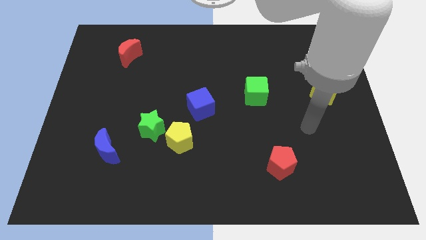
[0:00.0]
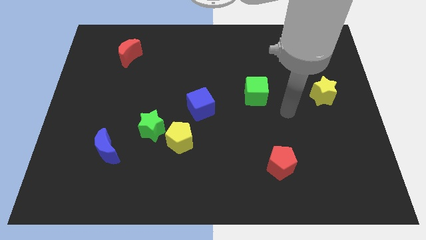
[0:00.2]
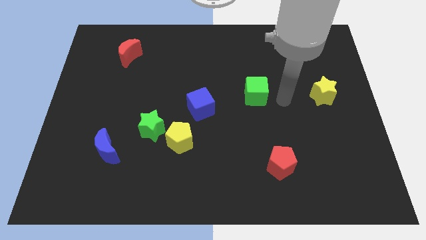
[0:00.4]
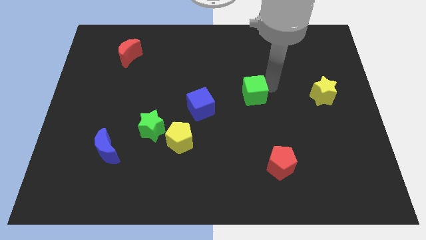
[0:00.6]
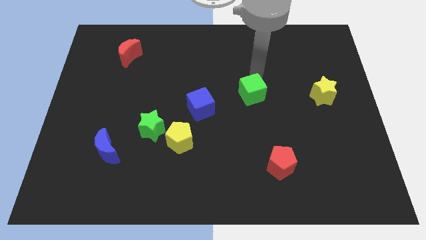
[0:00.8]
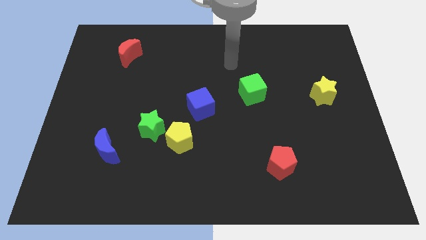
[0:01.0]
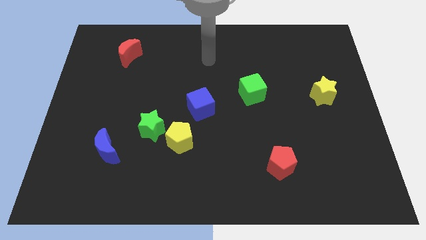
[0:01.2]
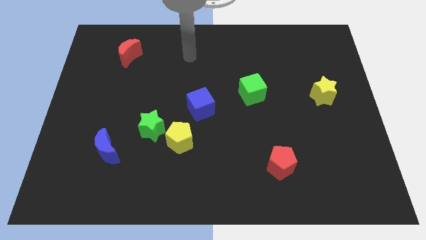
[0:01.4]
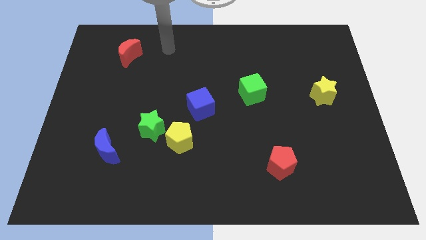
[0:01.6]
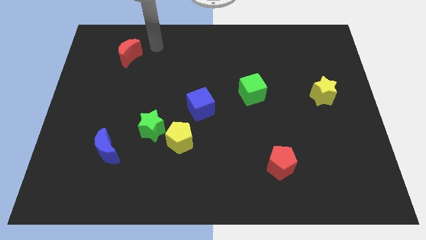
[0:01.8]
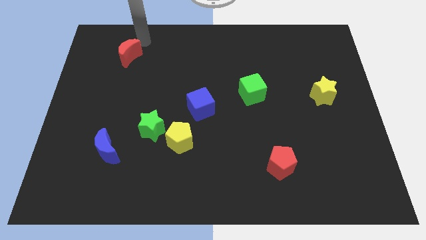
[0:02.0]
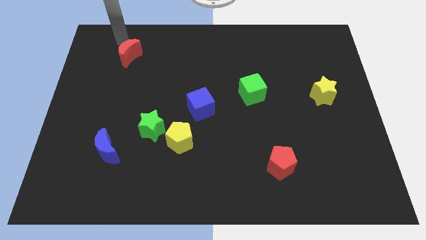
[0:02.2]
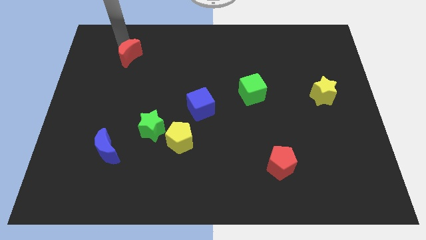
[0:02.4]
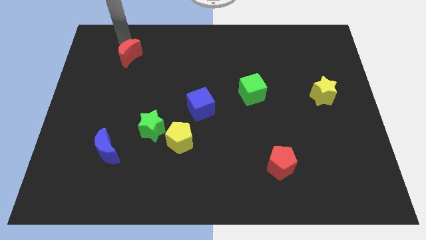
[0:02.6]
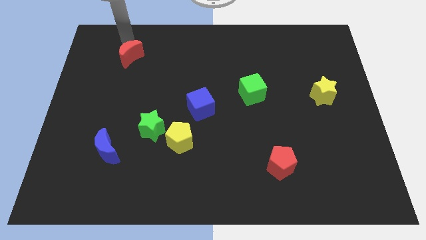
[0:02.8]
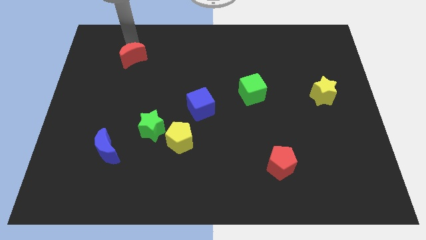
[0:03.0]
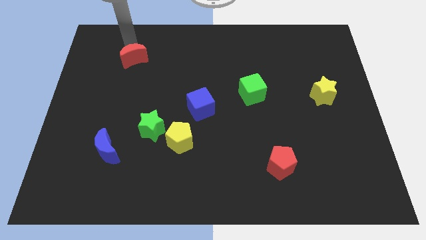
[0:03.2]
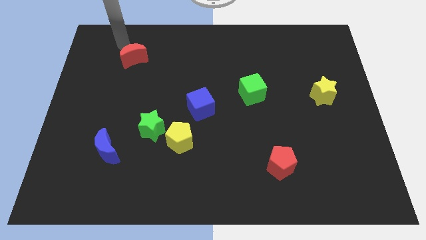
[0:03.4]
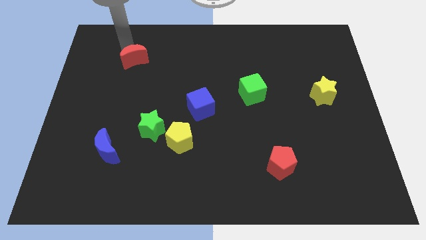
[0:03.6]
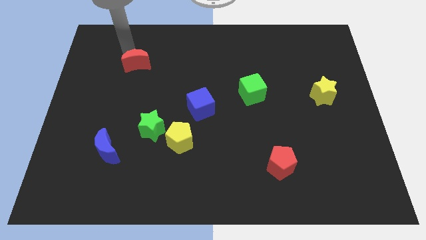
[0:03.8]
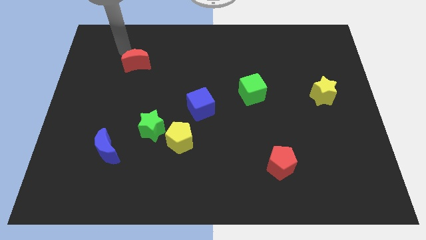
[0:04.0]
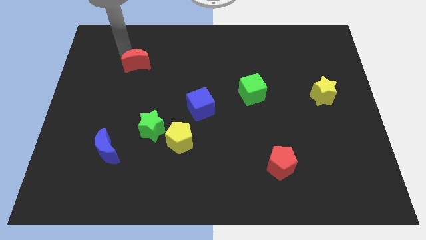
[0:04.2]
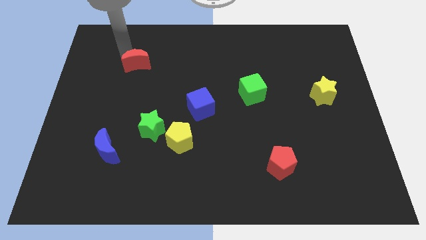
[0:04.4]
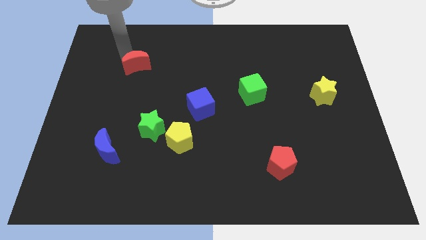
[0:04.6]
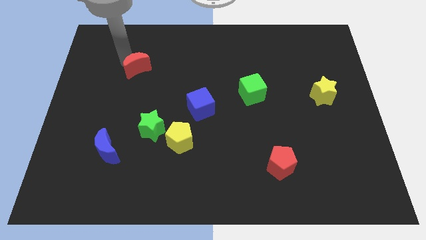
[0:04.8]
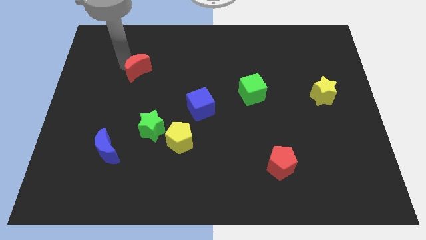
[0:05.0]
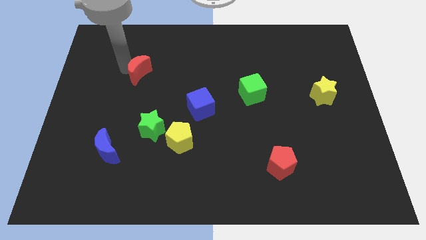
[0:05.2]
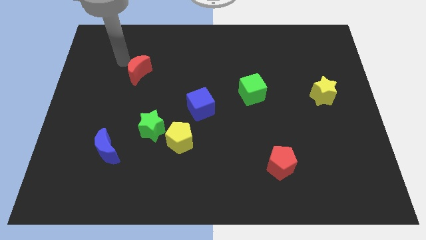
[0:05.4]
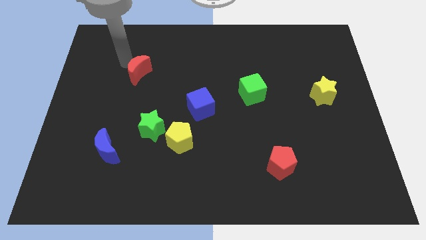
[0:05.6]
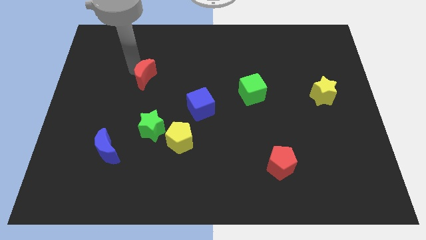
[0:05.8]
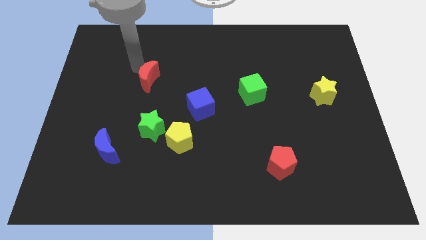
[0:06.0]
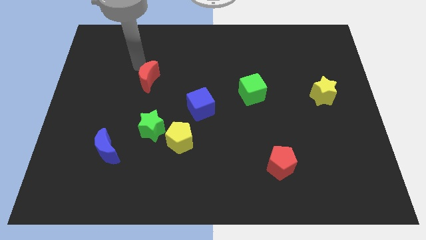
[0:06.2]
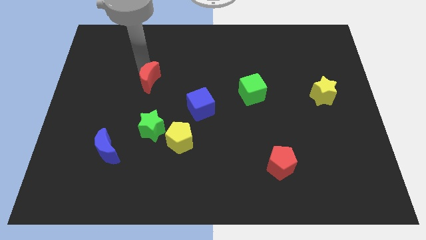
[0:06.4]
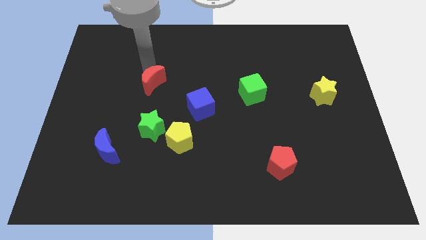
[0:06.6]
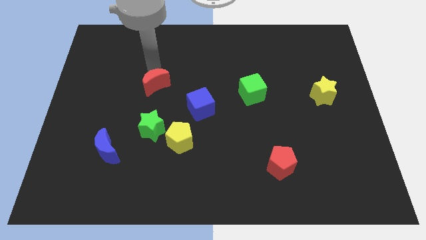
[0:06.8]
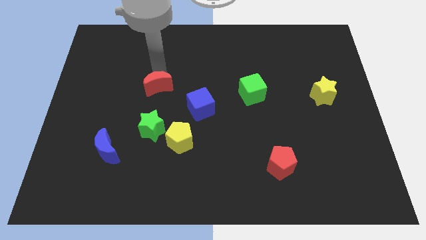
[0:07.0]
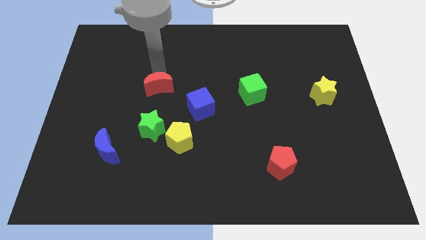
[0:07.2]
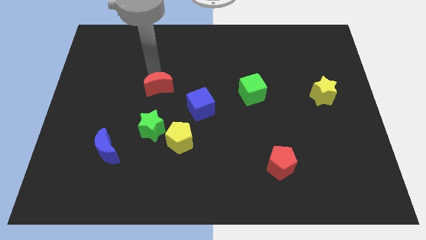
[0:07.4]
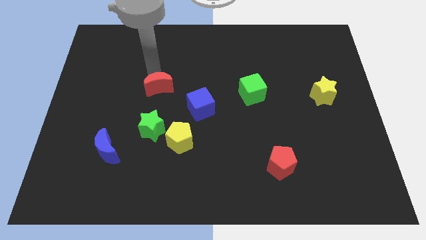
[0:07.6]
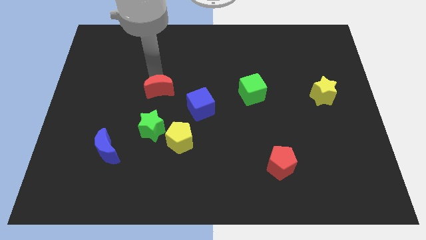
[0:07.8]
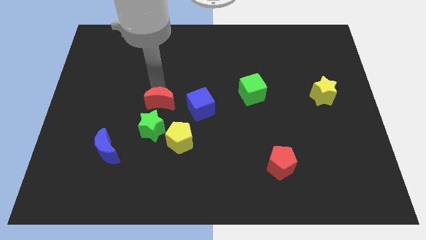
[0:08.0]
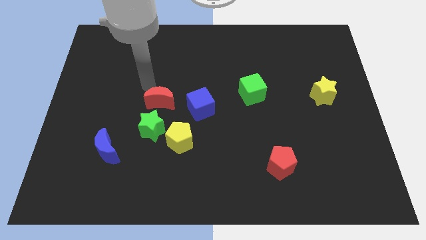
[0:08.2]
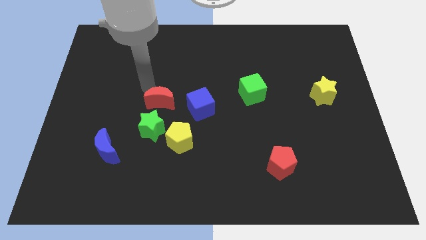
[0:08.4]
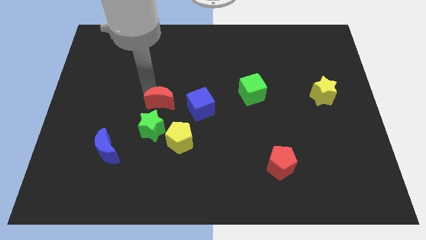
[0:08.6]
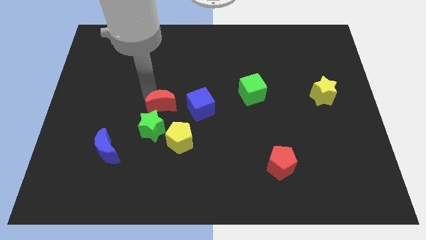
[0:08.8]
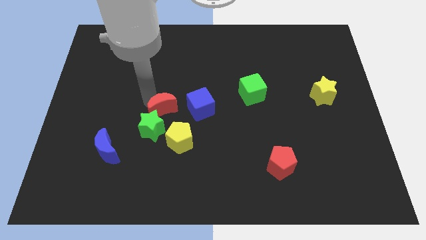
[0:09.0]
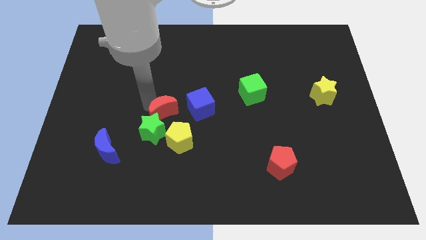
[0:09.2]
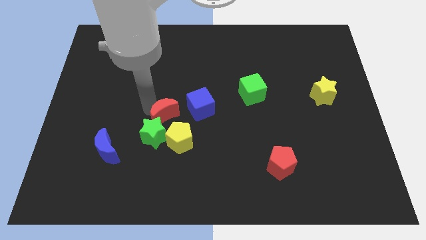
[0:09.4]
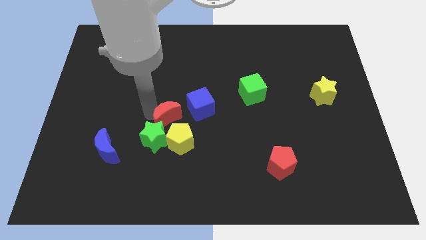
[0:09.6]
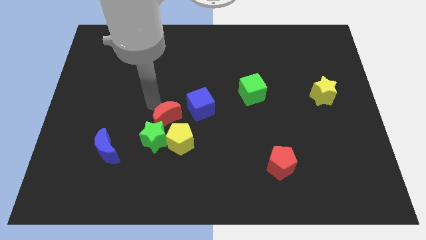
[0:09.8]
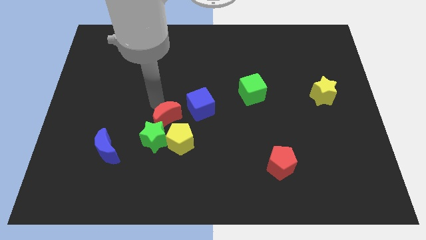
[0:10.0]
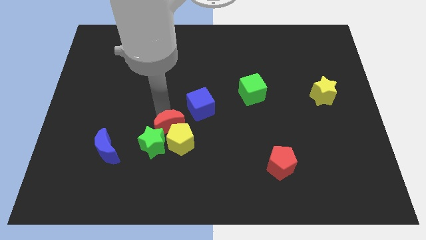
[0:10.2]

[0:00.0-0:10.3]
put the red moon close to the yellow pentagon

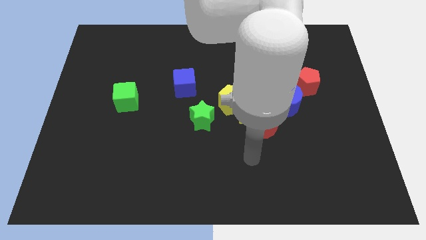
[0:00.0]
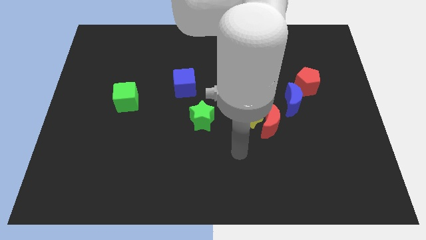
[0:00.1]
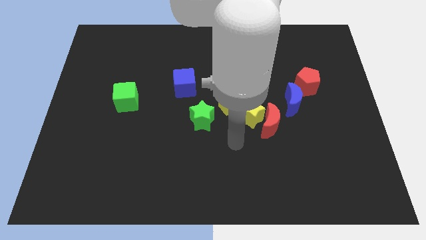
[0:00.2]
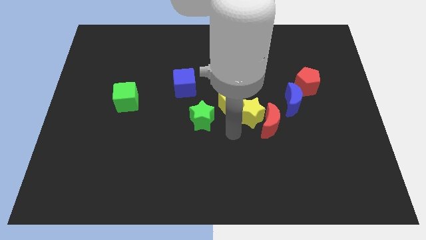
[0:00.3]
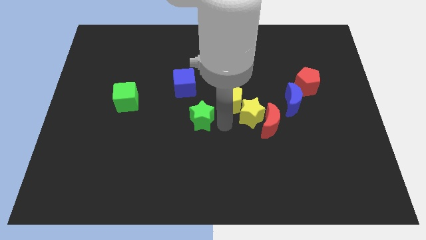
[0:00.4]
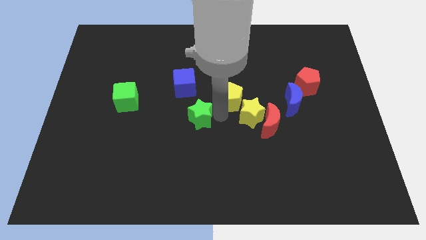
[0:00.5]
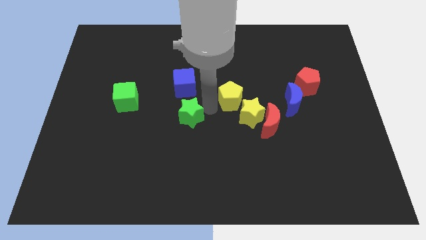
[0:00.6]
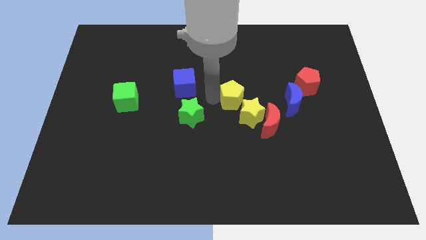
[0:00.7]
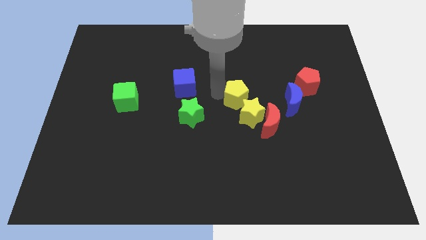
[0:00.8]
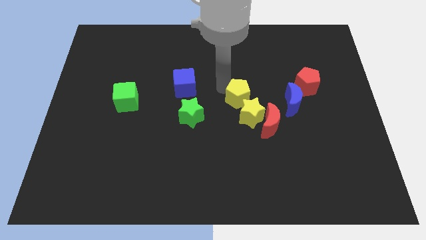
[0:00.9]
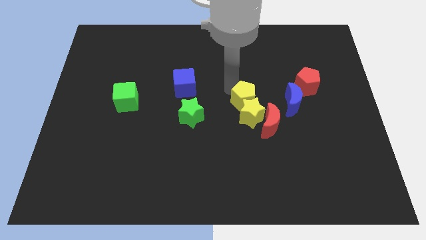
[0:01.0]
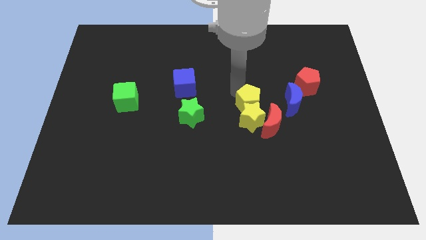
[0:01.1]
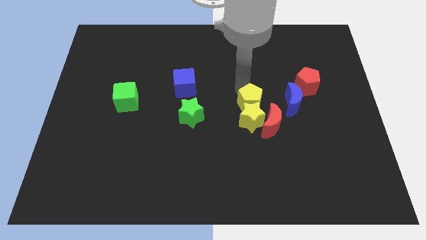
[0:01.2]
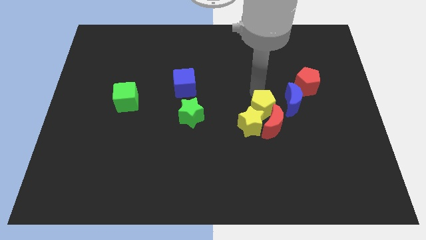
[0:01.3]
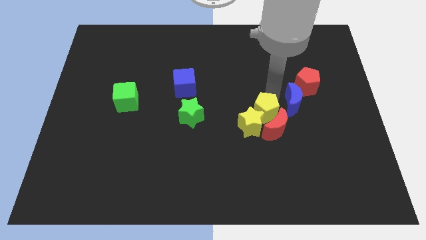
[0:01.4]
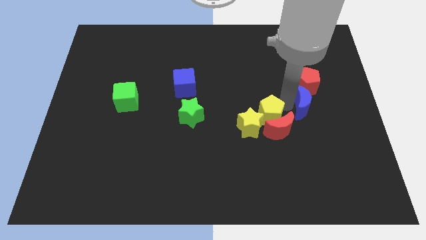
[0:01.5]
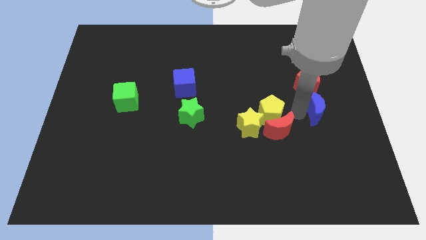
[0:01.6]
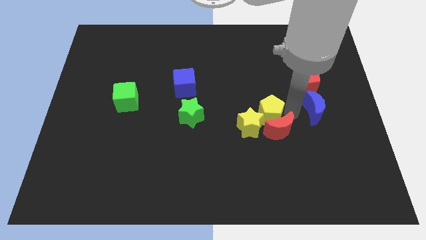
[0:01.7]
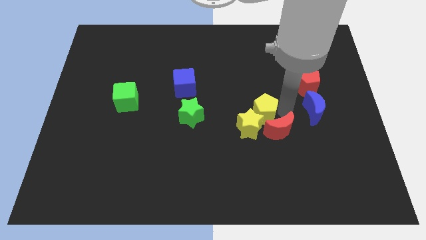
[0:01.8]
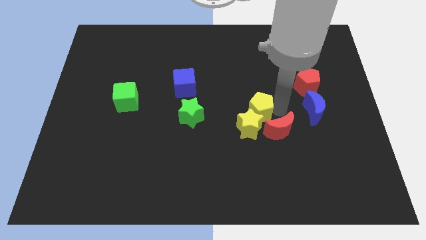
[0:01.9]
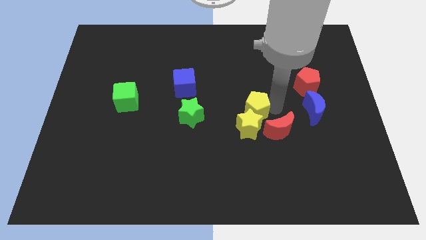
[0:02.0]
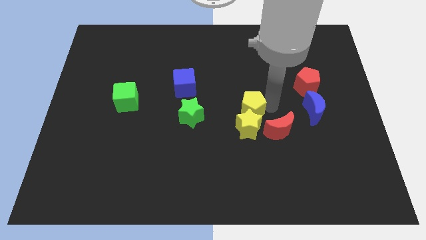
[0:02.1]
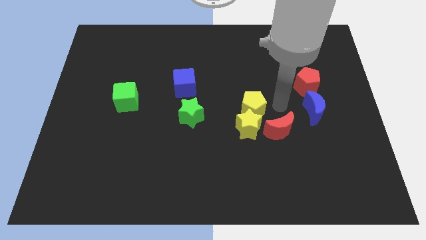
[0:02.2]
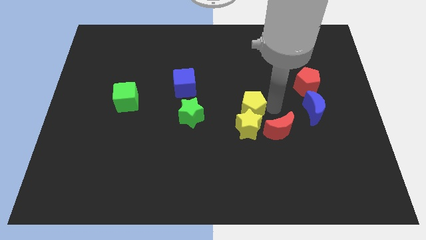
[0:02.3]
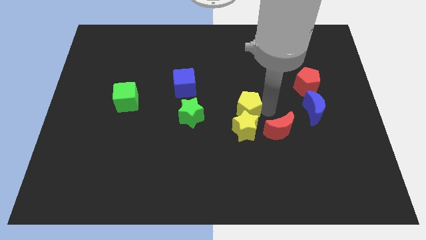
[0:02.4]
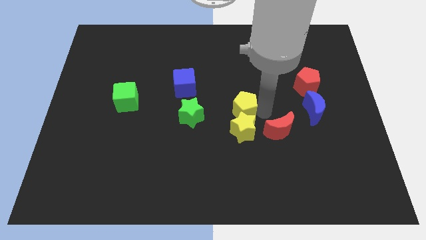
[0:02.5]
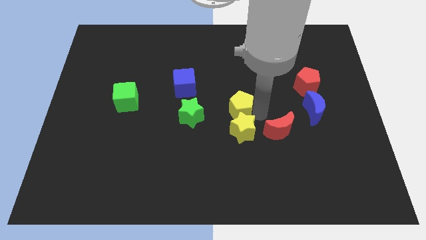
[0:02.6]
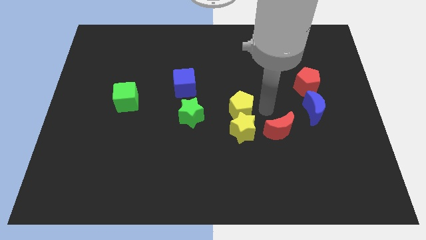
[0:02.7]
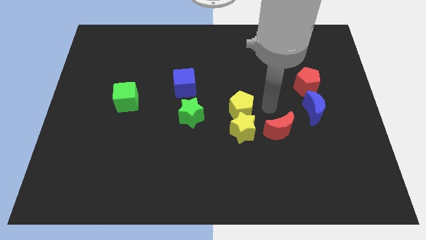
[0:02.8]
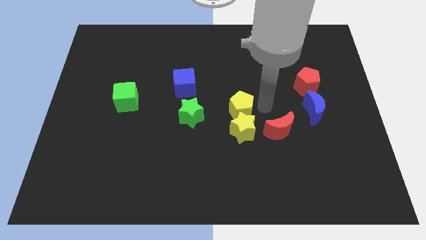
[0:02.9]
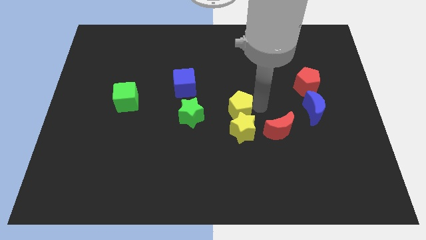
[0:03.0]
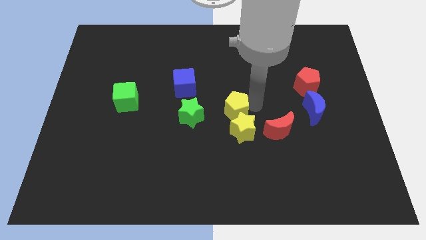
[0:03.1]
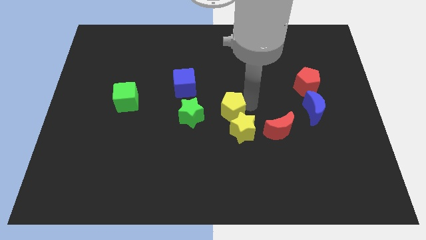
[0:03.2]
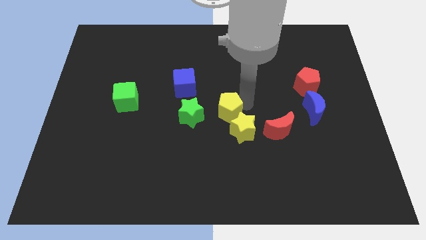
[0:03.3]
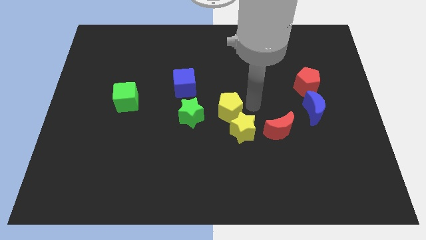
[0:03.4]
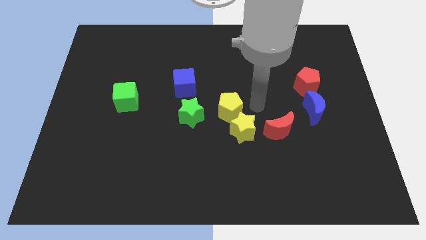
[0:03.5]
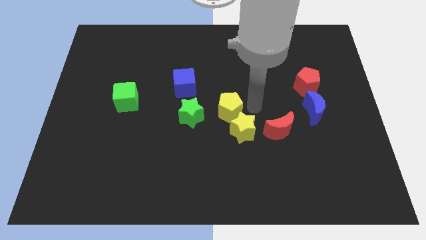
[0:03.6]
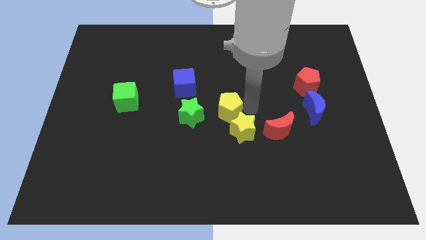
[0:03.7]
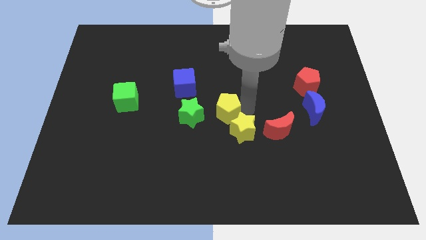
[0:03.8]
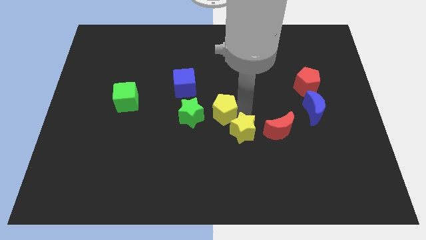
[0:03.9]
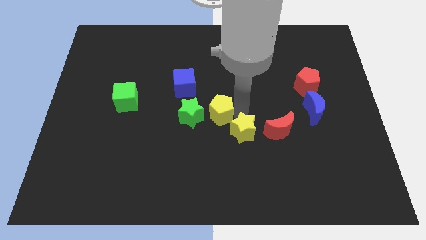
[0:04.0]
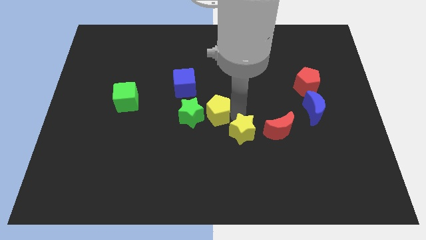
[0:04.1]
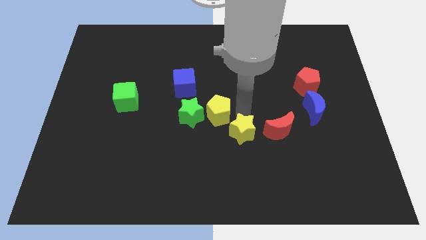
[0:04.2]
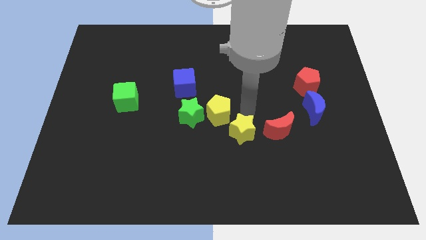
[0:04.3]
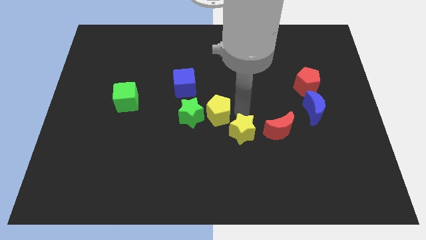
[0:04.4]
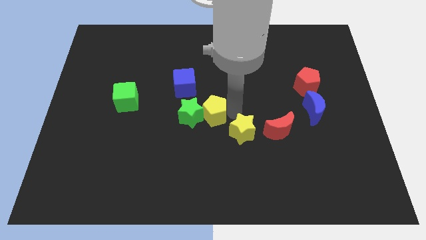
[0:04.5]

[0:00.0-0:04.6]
move the yellow pentagon close to the green star
